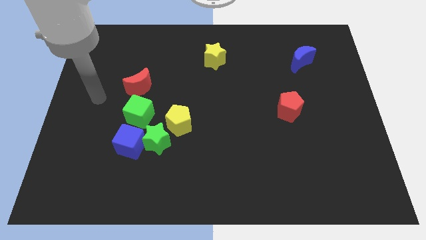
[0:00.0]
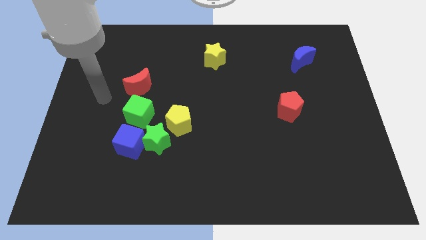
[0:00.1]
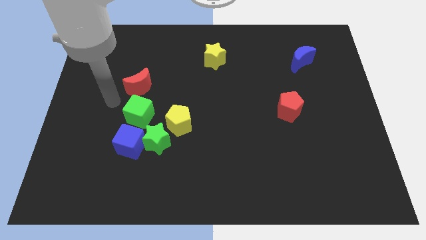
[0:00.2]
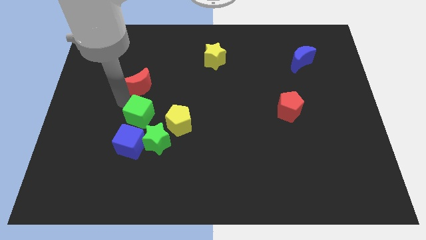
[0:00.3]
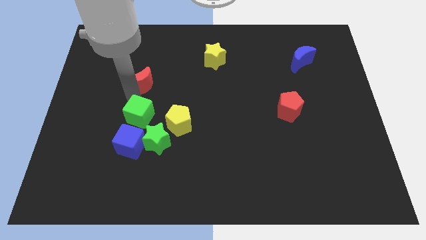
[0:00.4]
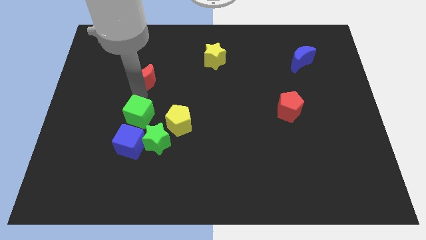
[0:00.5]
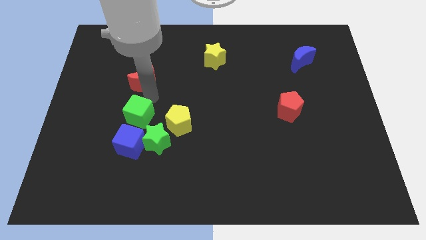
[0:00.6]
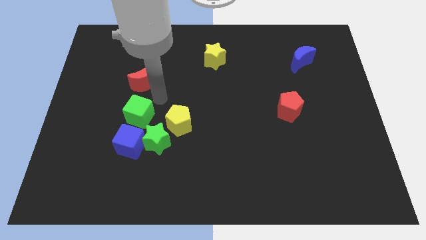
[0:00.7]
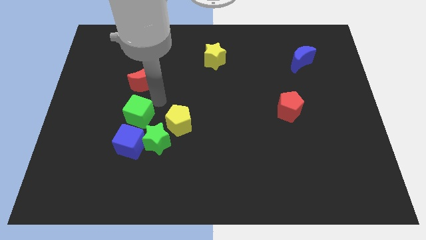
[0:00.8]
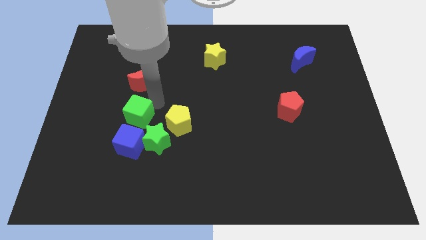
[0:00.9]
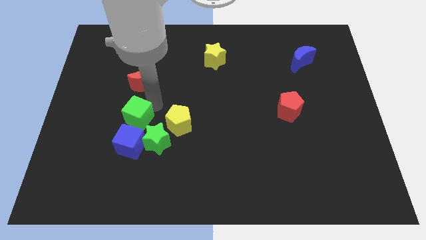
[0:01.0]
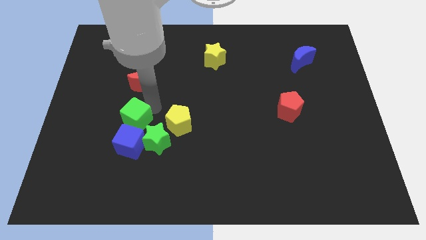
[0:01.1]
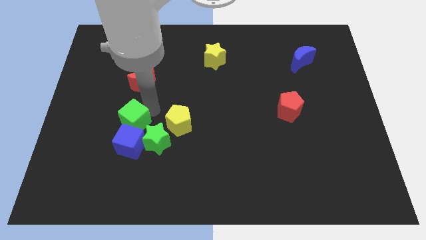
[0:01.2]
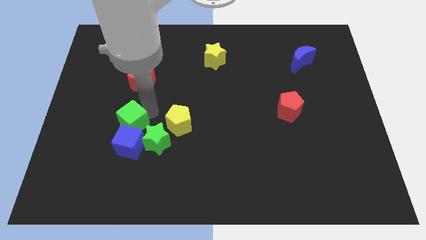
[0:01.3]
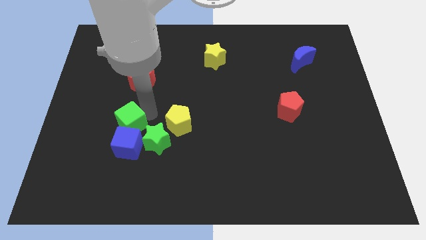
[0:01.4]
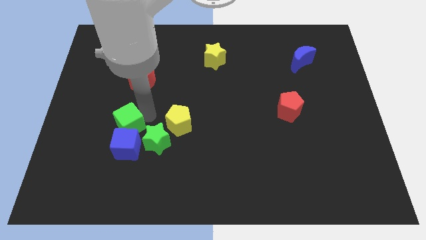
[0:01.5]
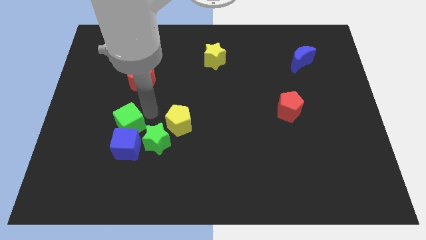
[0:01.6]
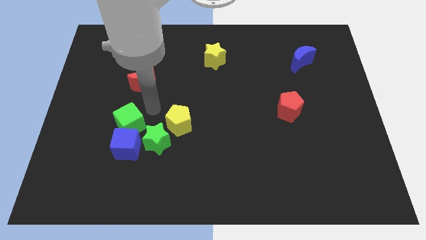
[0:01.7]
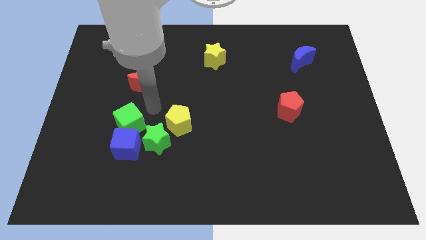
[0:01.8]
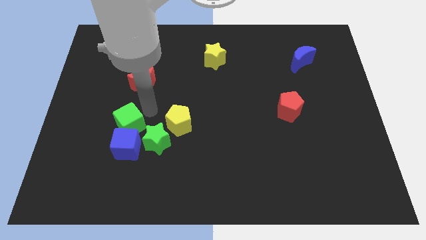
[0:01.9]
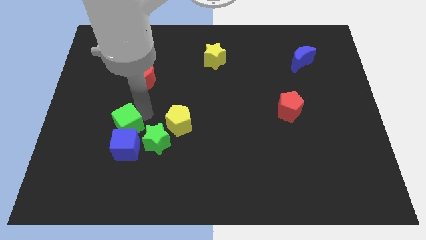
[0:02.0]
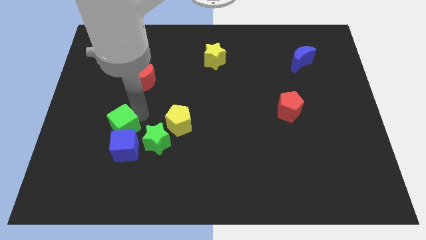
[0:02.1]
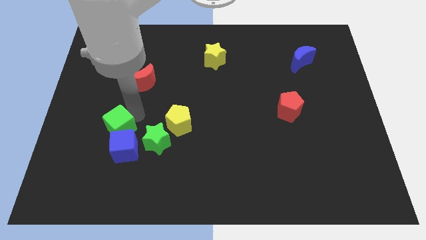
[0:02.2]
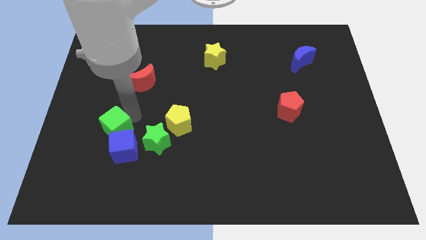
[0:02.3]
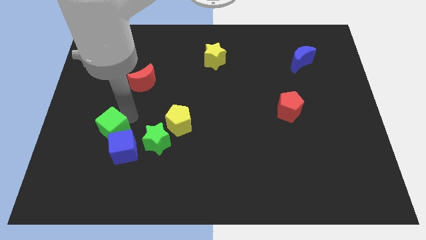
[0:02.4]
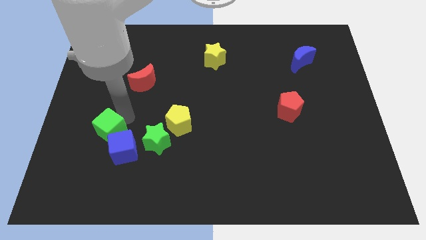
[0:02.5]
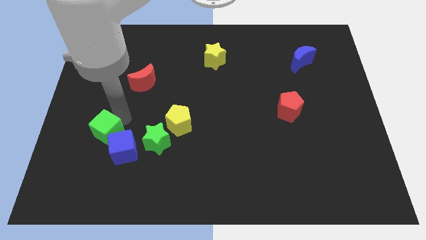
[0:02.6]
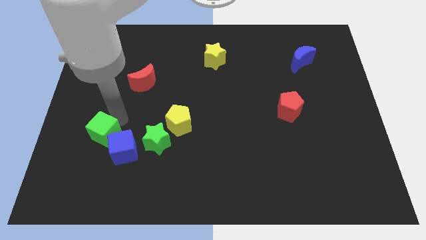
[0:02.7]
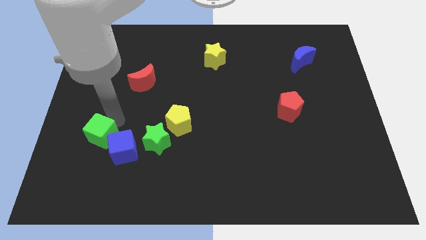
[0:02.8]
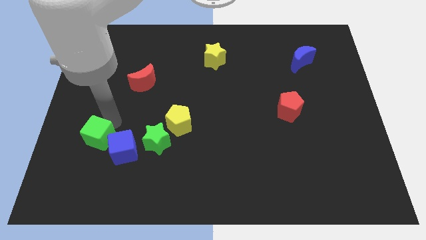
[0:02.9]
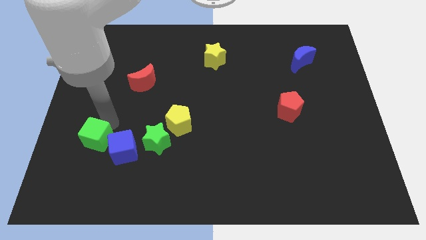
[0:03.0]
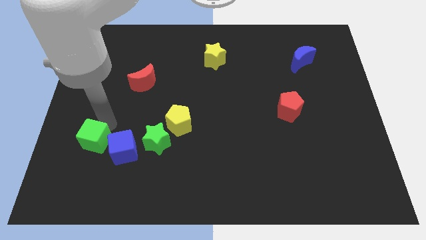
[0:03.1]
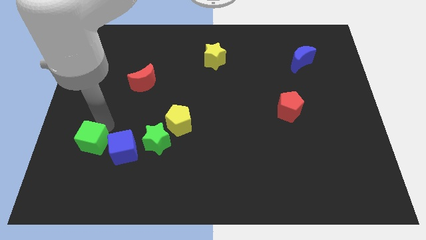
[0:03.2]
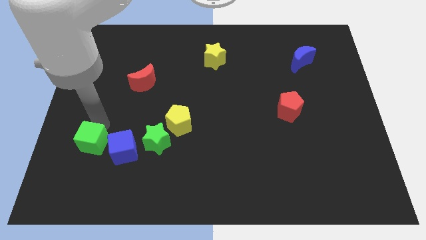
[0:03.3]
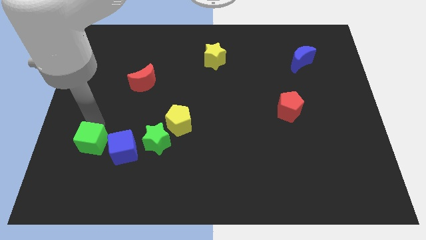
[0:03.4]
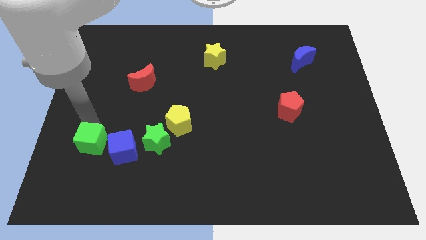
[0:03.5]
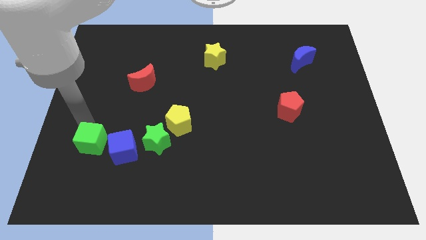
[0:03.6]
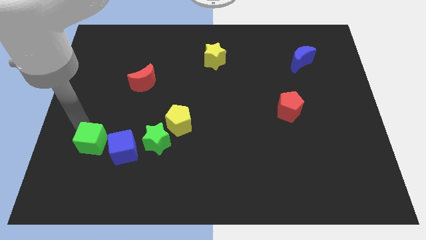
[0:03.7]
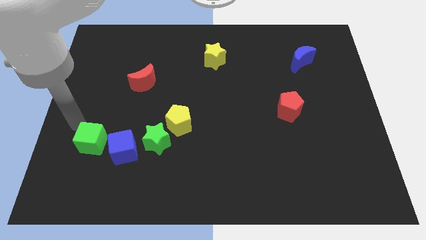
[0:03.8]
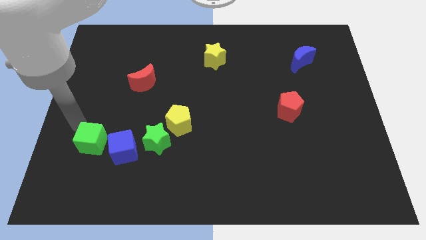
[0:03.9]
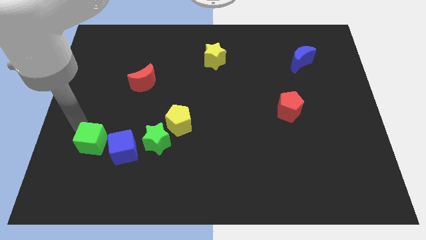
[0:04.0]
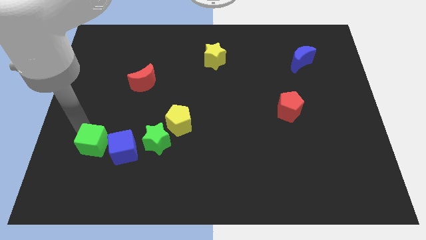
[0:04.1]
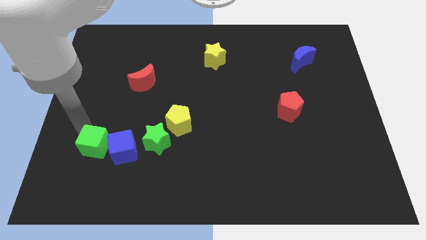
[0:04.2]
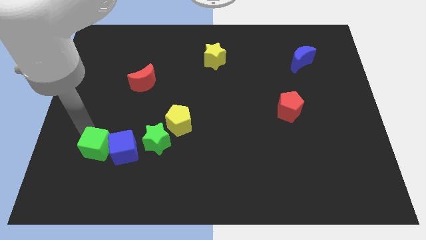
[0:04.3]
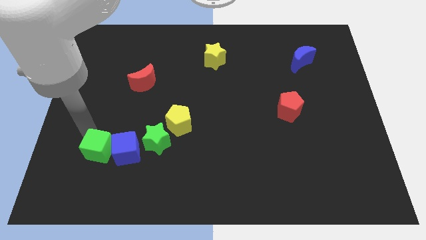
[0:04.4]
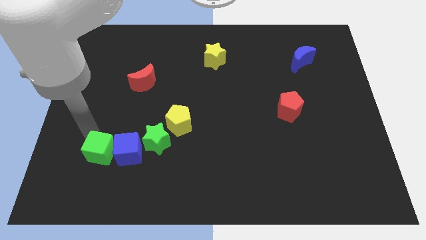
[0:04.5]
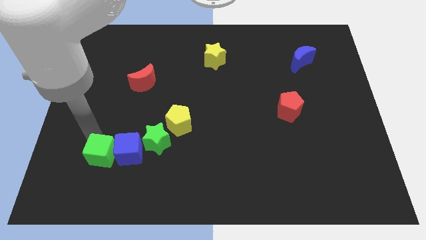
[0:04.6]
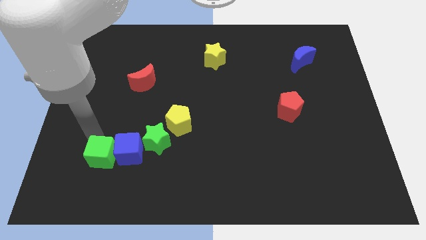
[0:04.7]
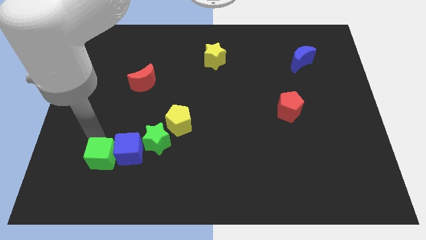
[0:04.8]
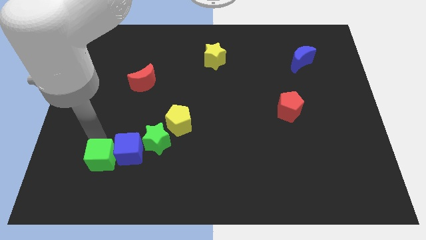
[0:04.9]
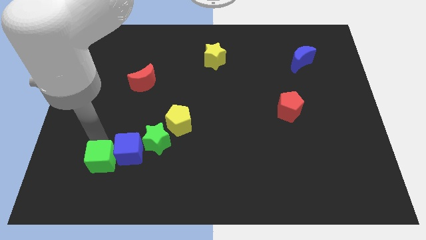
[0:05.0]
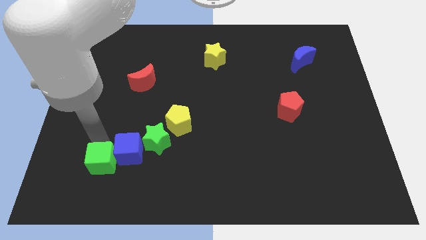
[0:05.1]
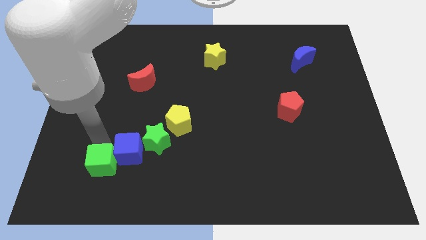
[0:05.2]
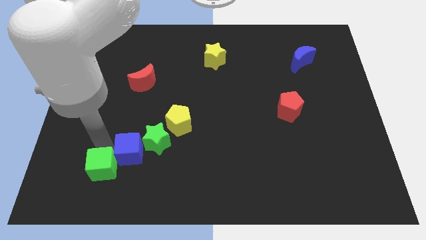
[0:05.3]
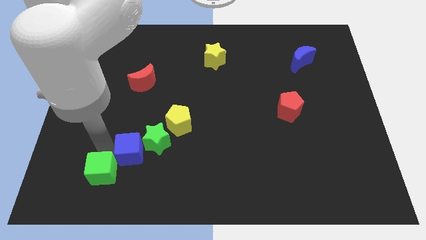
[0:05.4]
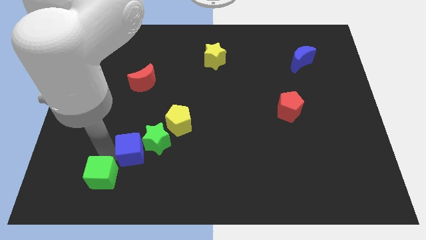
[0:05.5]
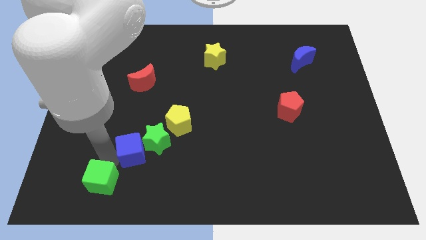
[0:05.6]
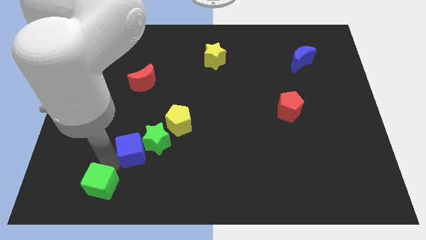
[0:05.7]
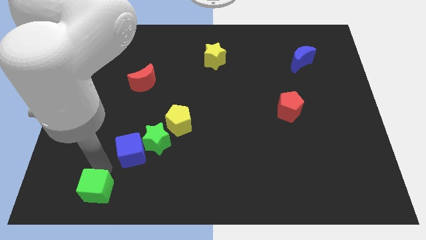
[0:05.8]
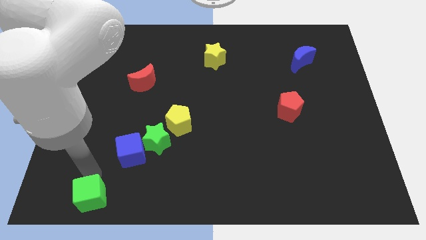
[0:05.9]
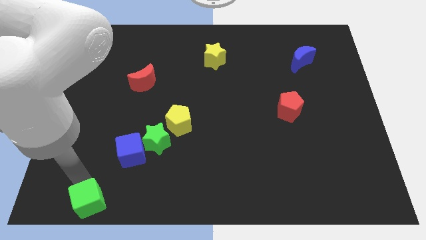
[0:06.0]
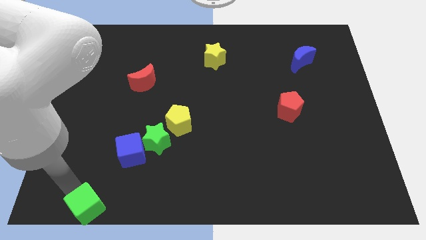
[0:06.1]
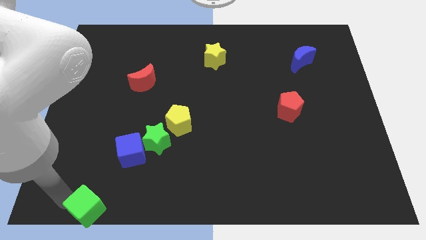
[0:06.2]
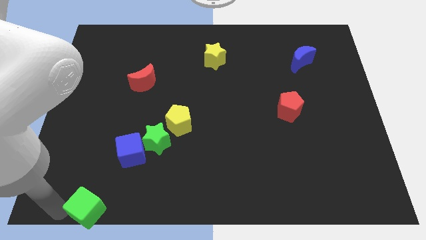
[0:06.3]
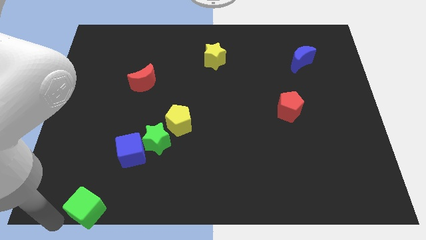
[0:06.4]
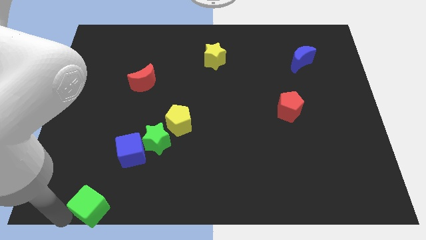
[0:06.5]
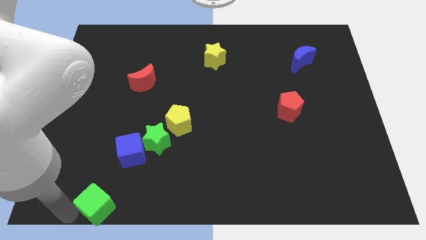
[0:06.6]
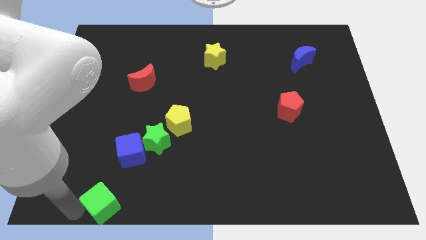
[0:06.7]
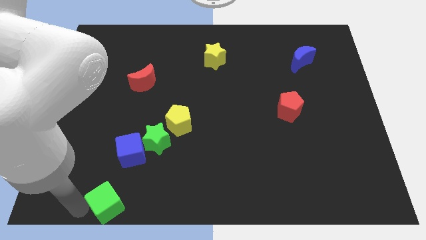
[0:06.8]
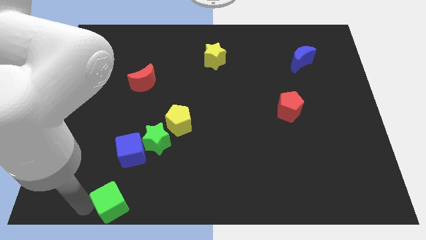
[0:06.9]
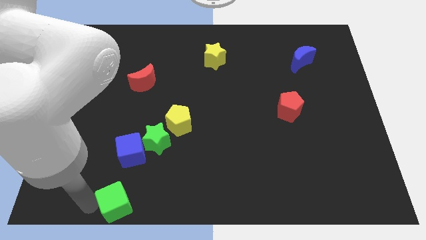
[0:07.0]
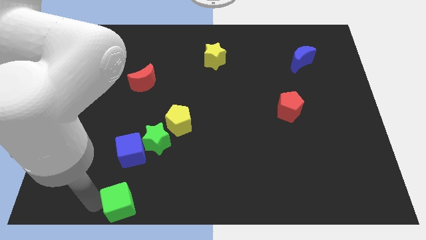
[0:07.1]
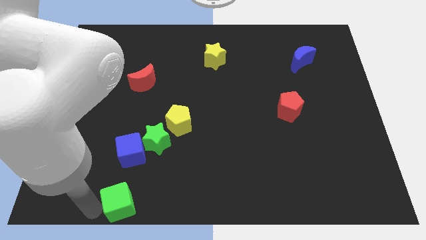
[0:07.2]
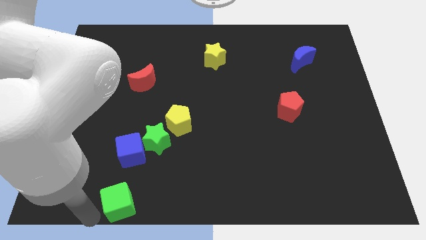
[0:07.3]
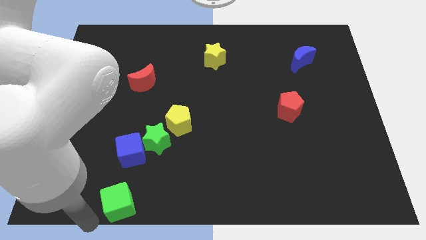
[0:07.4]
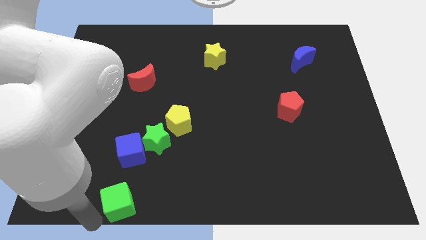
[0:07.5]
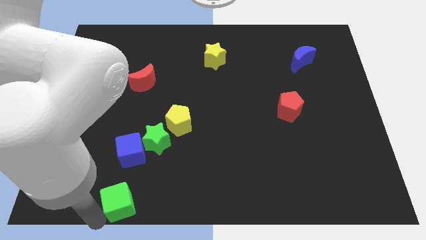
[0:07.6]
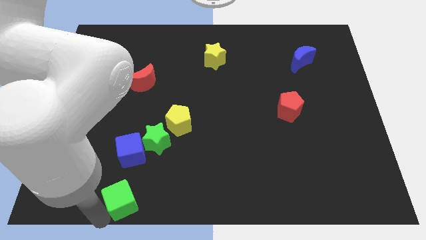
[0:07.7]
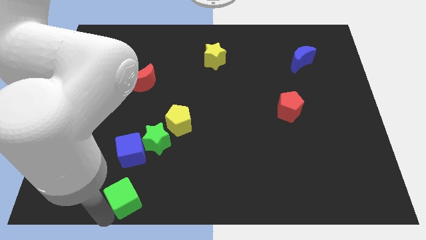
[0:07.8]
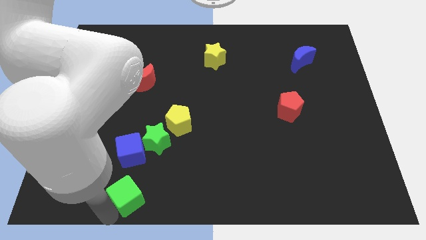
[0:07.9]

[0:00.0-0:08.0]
push the green cube to the bottom of the green star
